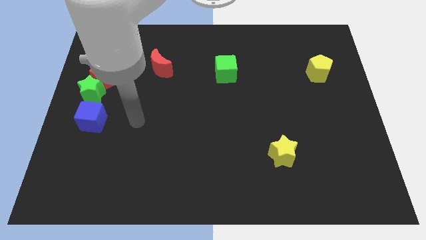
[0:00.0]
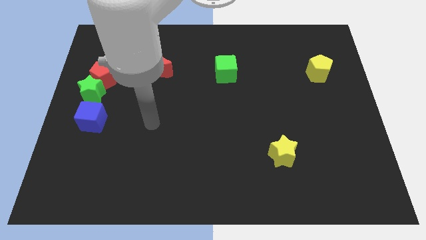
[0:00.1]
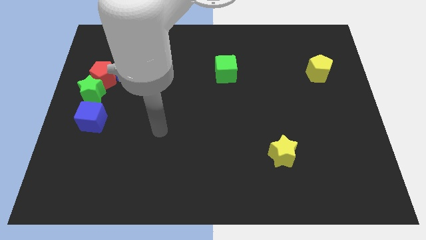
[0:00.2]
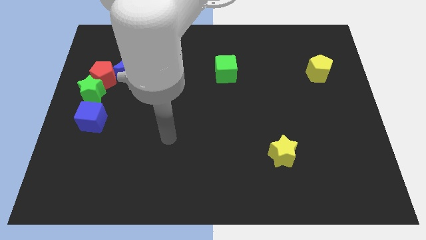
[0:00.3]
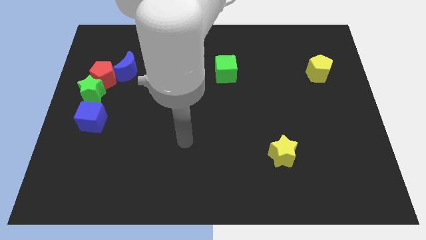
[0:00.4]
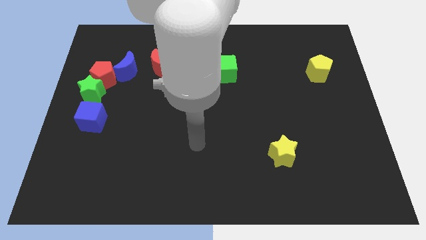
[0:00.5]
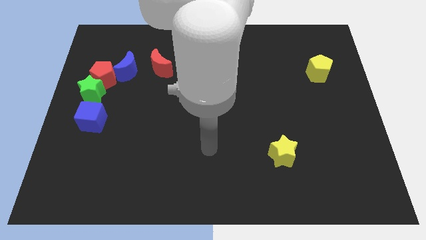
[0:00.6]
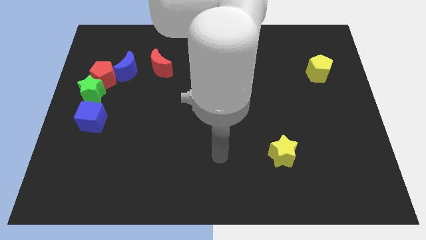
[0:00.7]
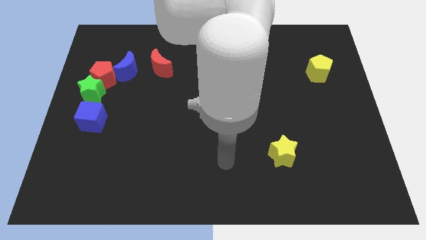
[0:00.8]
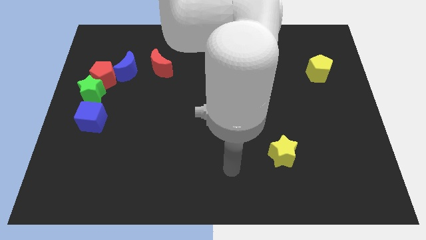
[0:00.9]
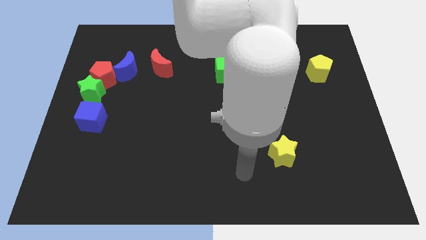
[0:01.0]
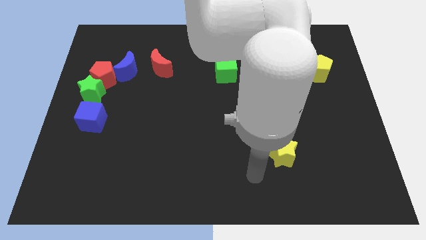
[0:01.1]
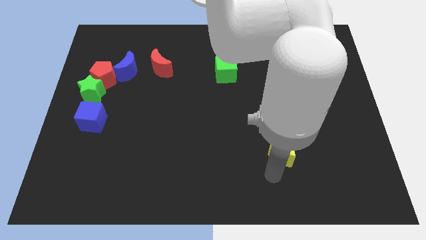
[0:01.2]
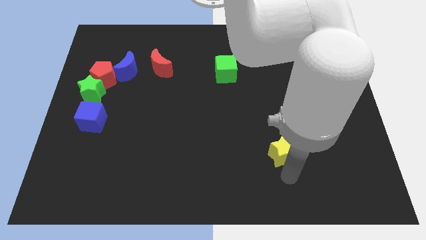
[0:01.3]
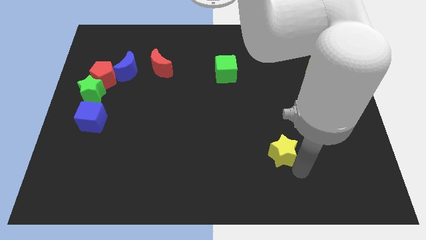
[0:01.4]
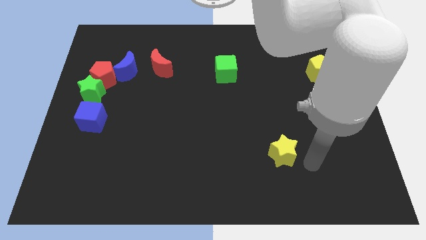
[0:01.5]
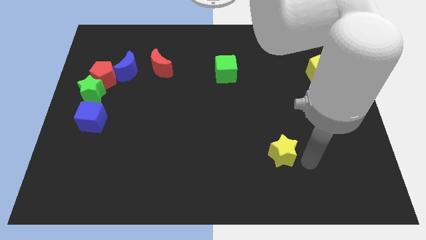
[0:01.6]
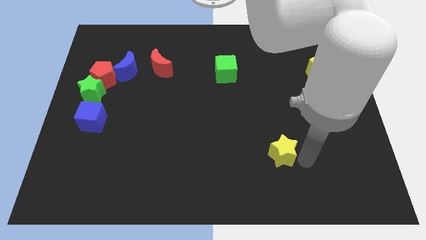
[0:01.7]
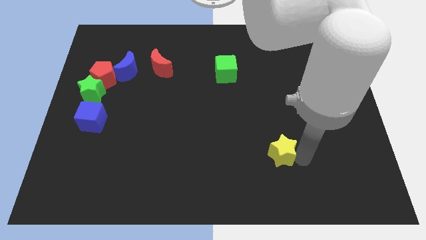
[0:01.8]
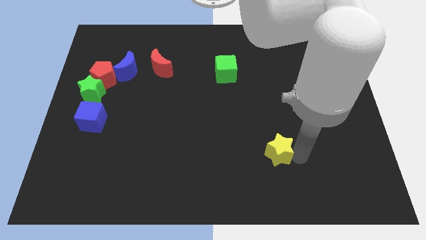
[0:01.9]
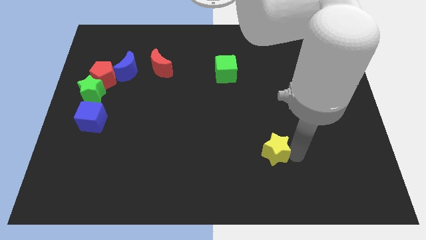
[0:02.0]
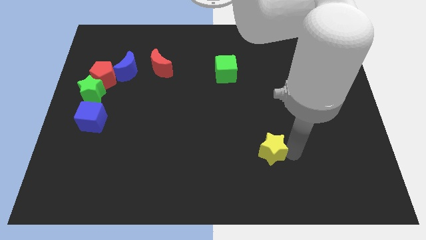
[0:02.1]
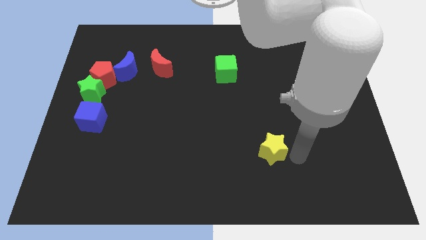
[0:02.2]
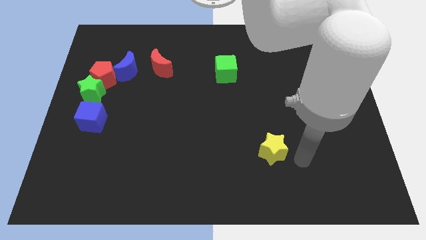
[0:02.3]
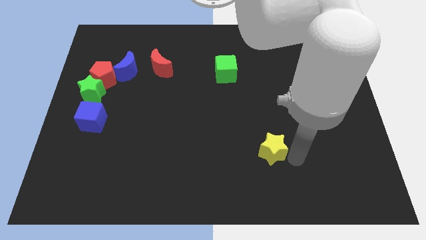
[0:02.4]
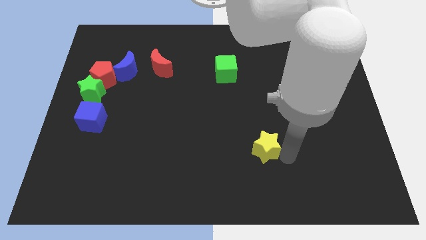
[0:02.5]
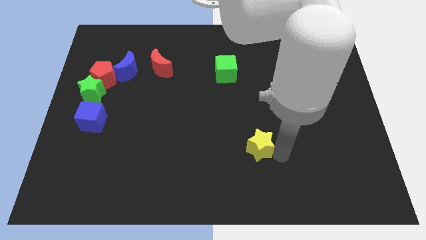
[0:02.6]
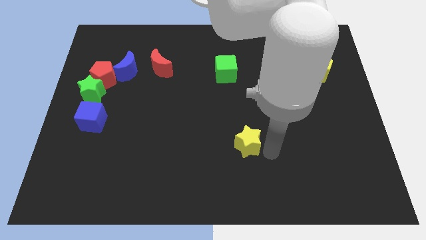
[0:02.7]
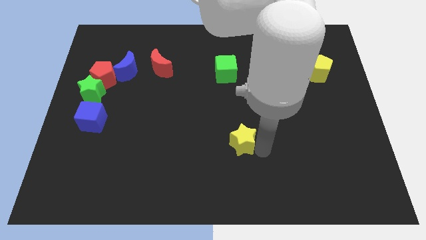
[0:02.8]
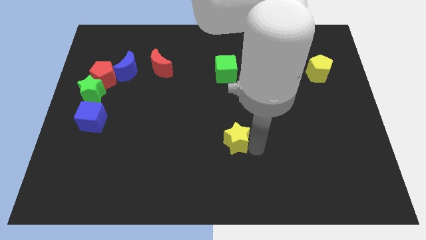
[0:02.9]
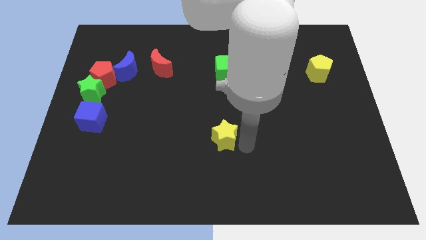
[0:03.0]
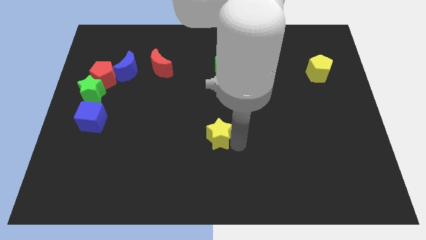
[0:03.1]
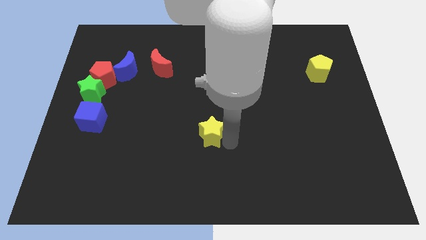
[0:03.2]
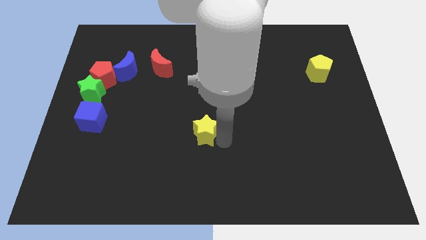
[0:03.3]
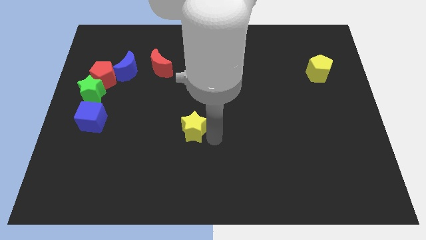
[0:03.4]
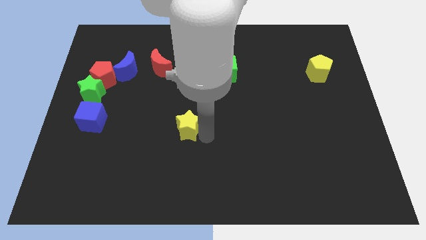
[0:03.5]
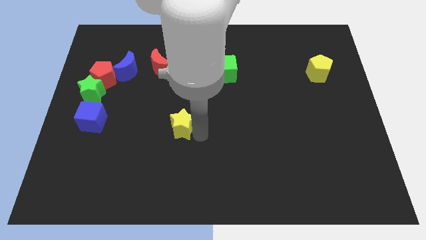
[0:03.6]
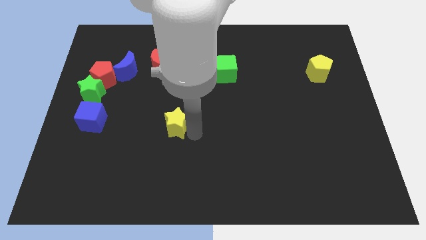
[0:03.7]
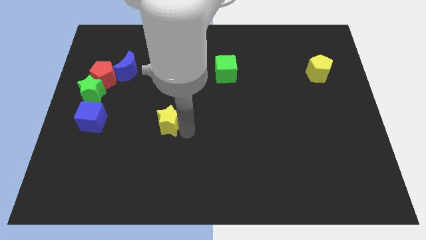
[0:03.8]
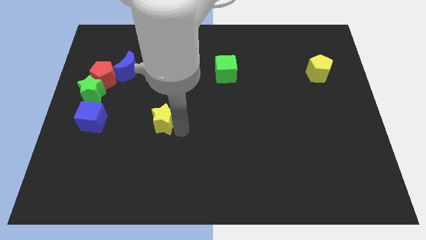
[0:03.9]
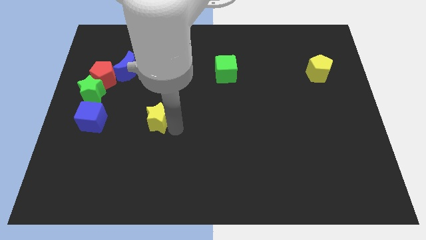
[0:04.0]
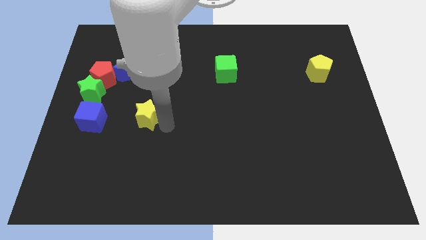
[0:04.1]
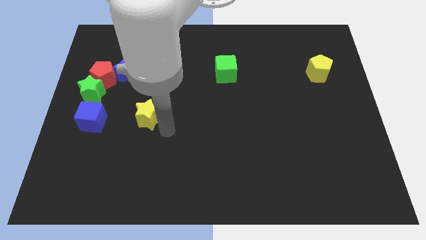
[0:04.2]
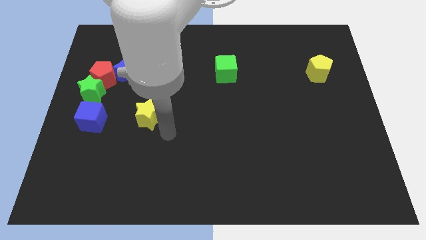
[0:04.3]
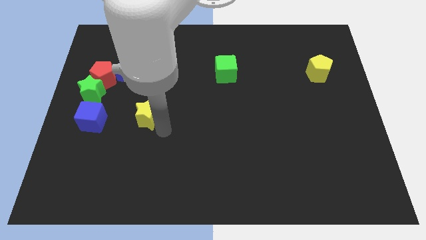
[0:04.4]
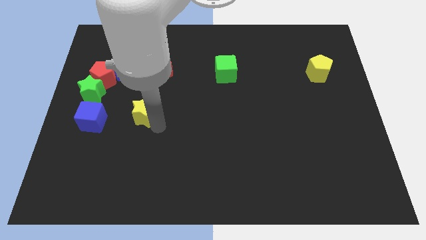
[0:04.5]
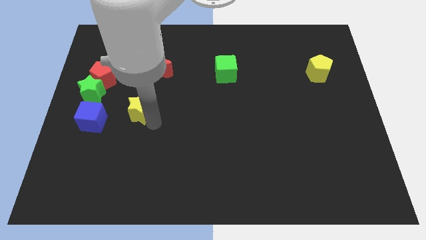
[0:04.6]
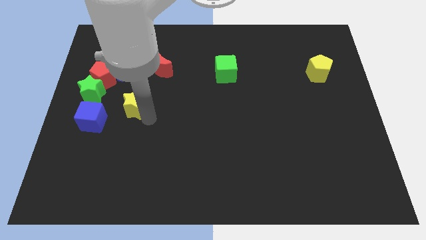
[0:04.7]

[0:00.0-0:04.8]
put the yellow star to the top right side of the blue cube

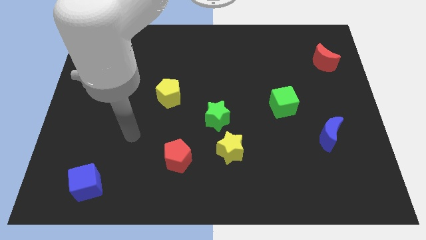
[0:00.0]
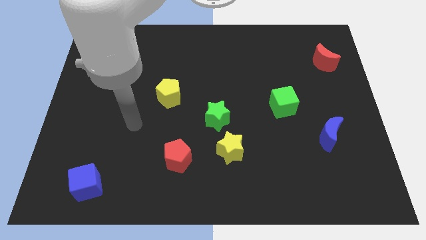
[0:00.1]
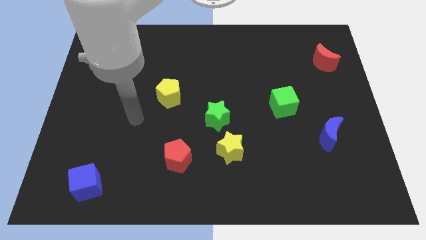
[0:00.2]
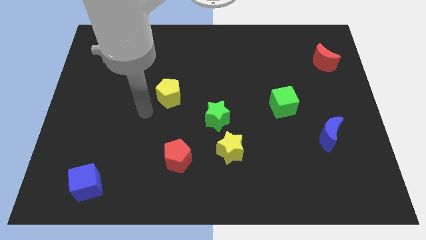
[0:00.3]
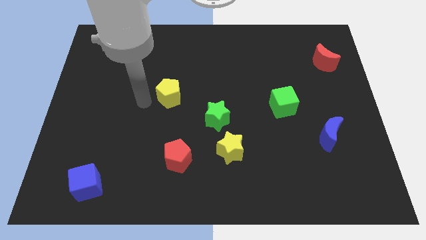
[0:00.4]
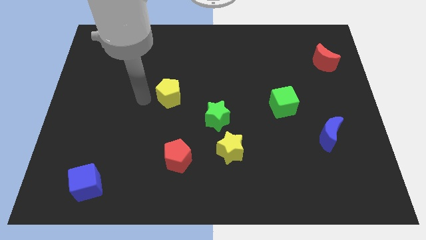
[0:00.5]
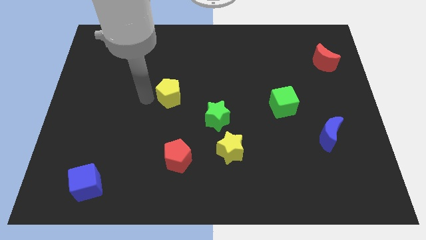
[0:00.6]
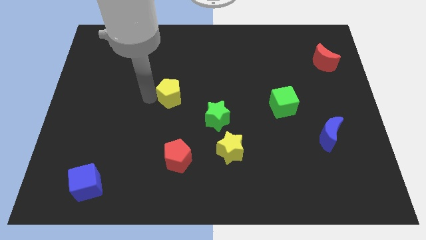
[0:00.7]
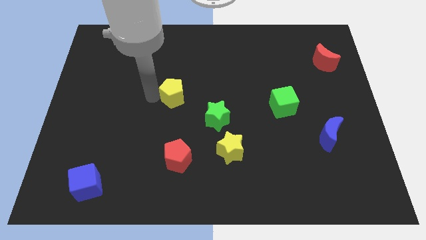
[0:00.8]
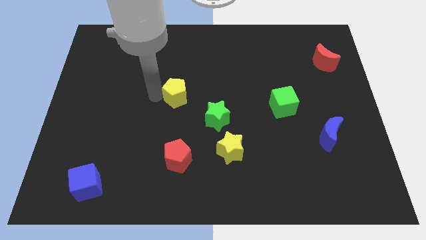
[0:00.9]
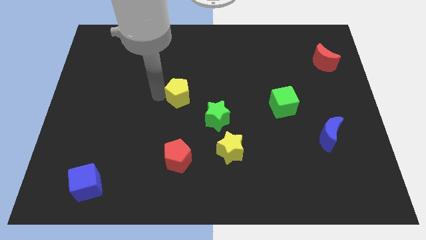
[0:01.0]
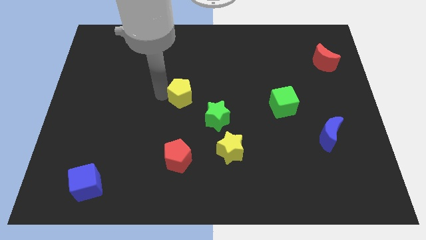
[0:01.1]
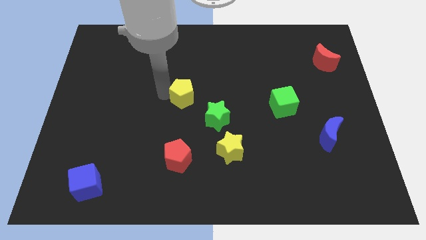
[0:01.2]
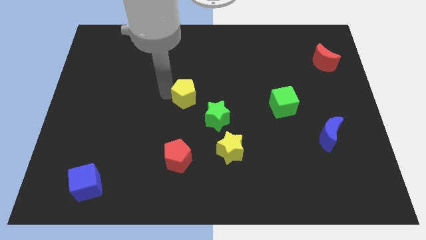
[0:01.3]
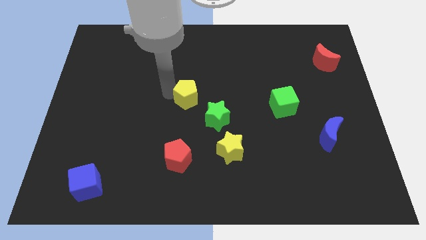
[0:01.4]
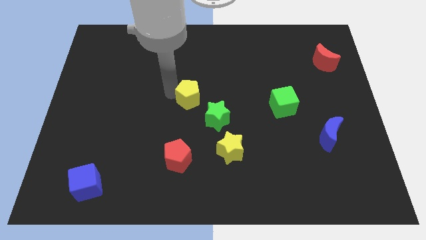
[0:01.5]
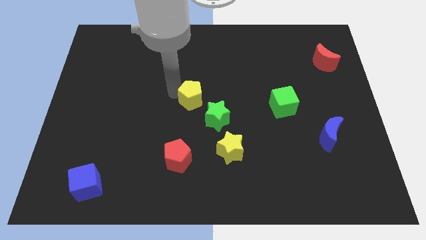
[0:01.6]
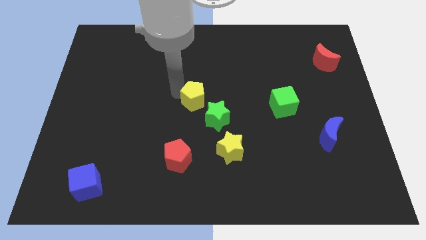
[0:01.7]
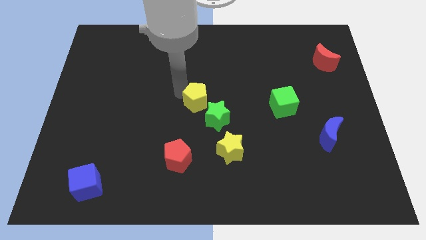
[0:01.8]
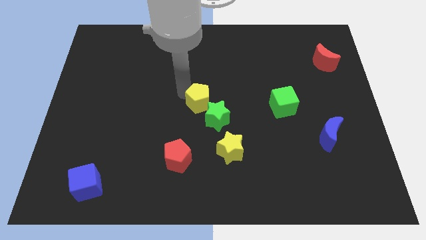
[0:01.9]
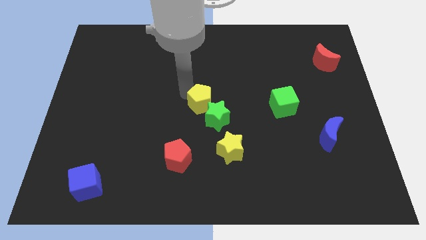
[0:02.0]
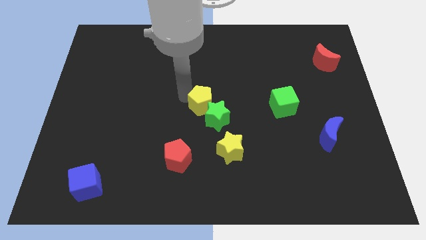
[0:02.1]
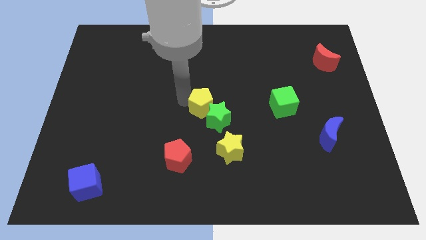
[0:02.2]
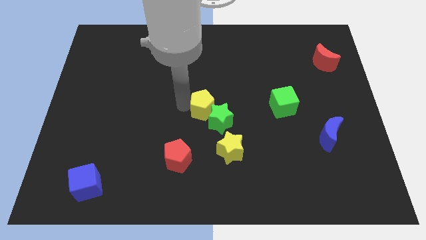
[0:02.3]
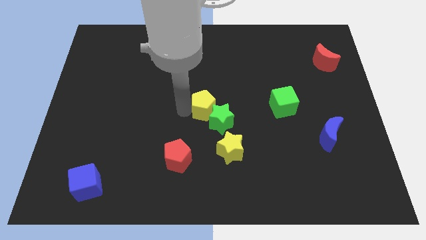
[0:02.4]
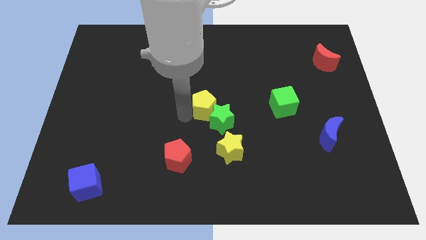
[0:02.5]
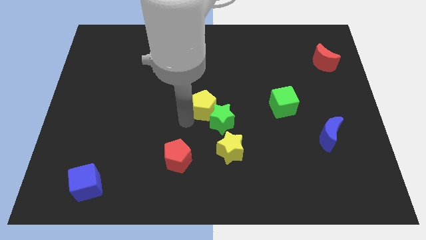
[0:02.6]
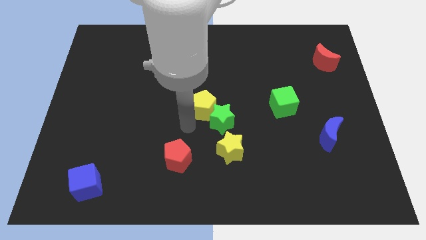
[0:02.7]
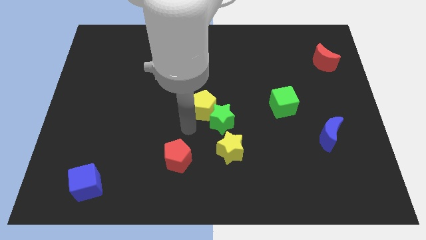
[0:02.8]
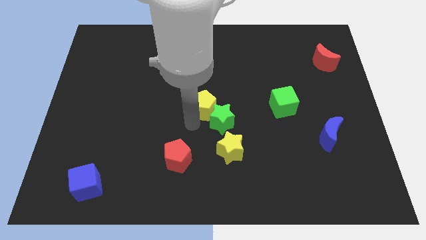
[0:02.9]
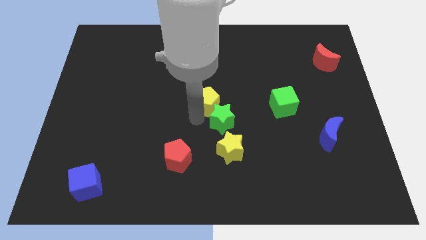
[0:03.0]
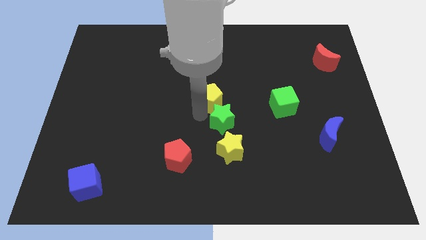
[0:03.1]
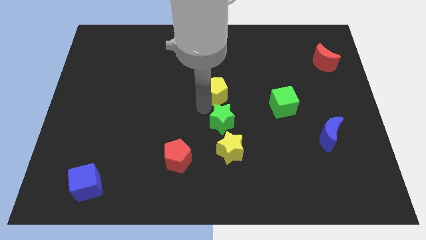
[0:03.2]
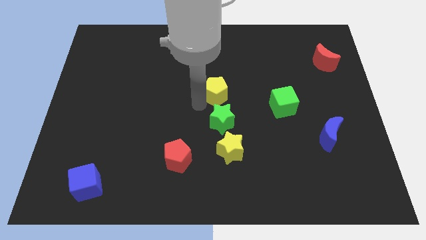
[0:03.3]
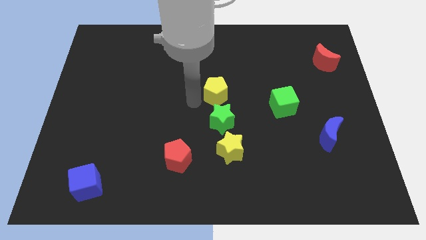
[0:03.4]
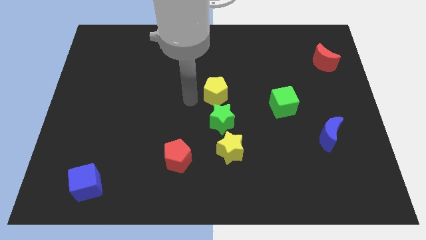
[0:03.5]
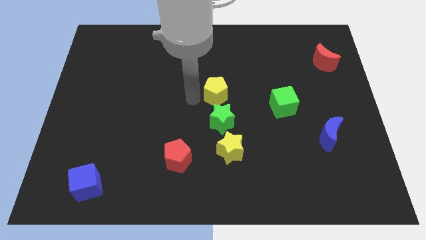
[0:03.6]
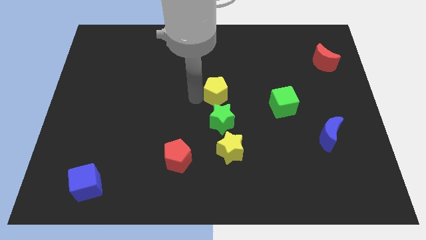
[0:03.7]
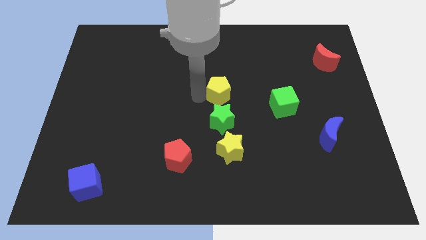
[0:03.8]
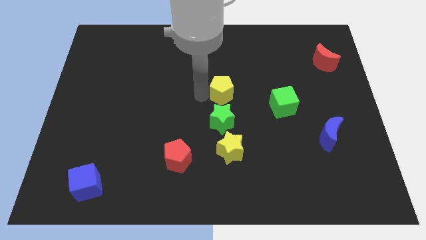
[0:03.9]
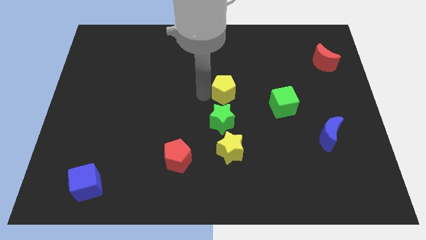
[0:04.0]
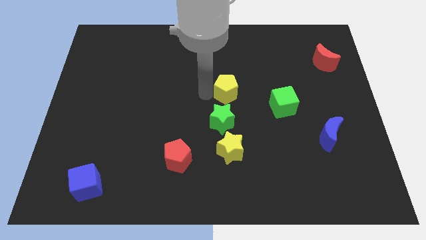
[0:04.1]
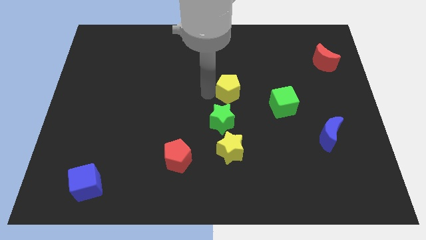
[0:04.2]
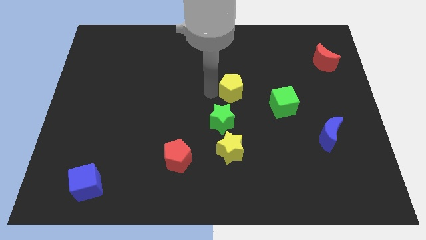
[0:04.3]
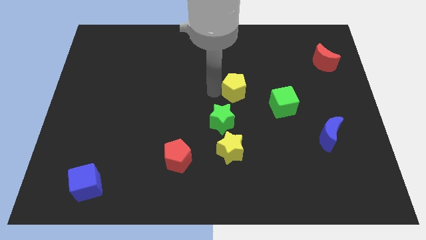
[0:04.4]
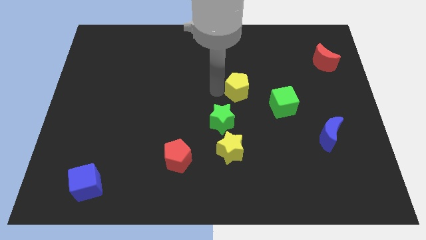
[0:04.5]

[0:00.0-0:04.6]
slide the yellow pentagon to the top left side of the green cube
